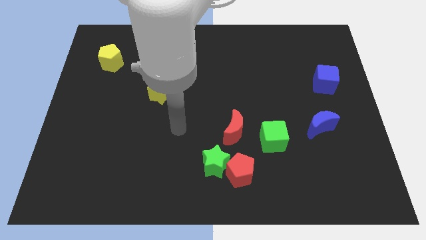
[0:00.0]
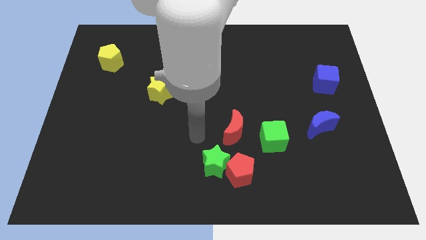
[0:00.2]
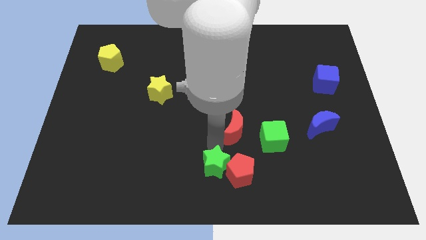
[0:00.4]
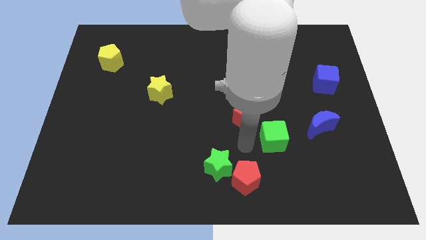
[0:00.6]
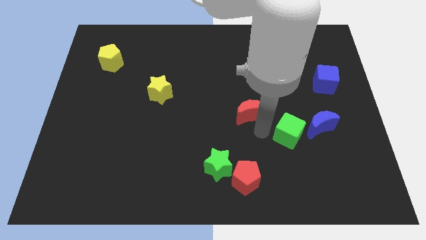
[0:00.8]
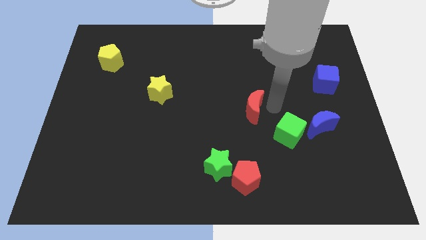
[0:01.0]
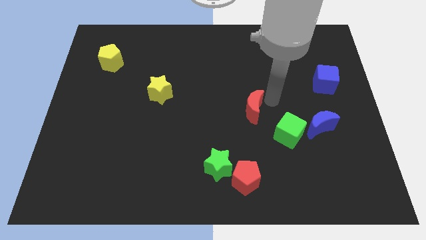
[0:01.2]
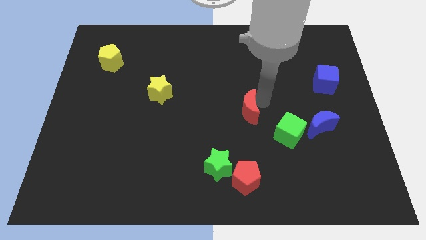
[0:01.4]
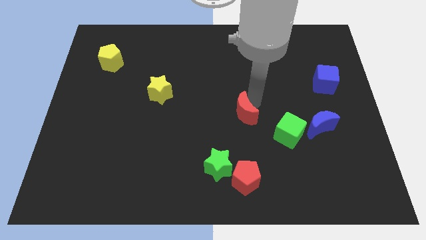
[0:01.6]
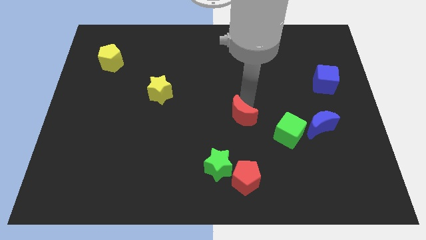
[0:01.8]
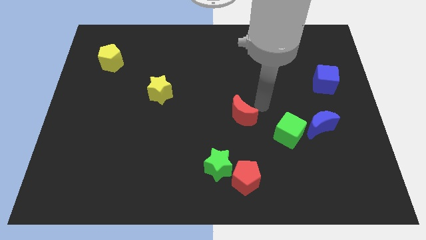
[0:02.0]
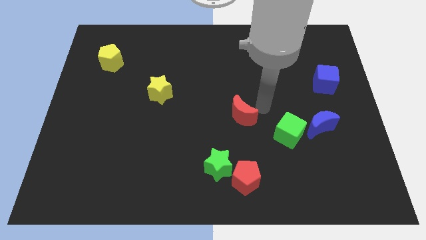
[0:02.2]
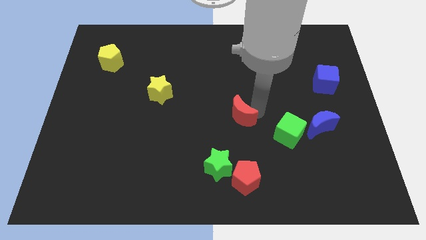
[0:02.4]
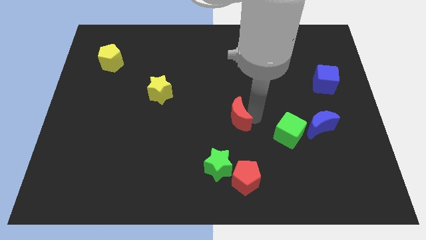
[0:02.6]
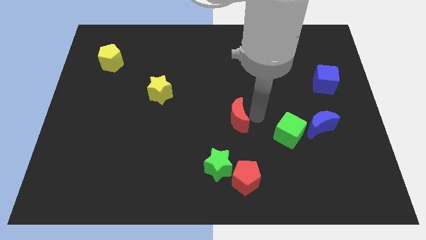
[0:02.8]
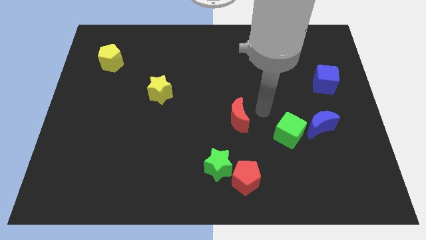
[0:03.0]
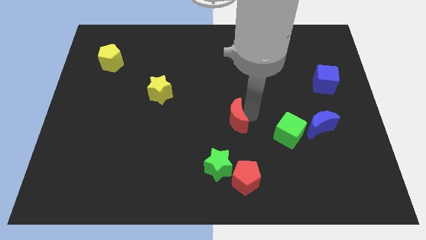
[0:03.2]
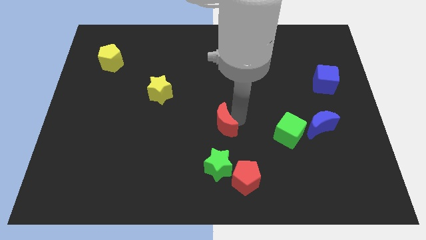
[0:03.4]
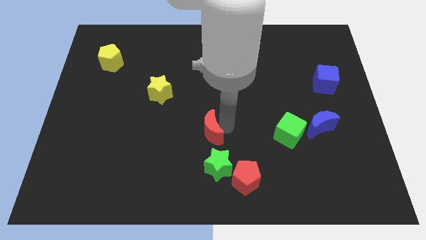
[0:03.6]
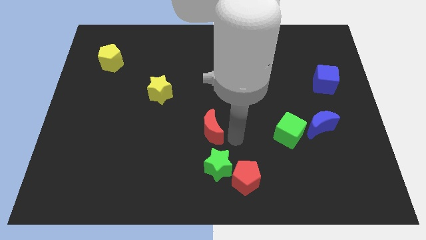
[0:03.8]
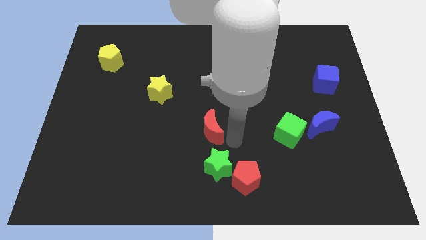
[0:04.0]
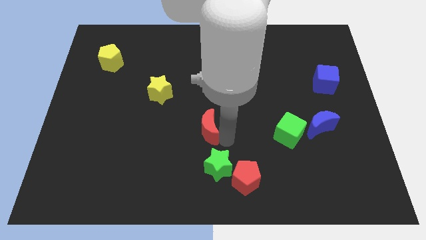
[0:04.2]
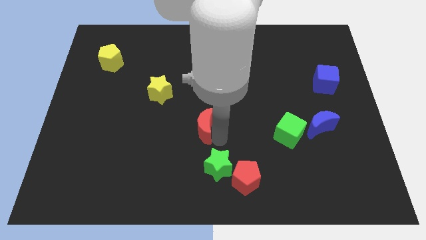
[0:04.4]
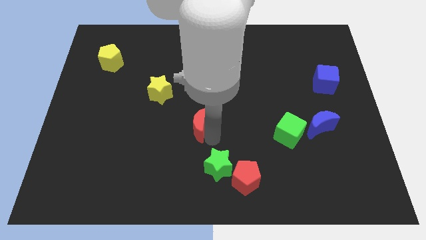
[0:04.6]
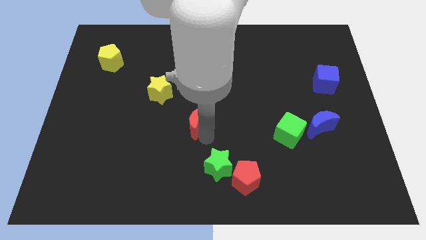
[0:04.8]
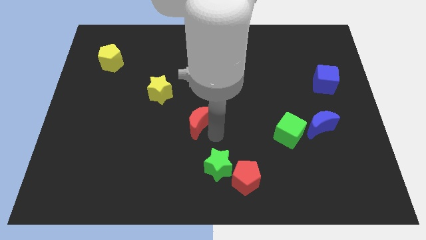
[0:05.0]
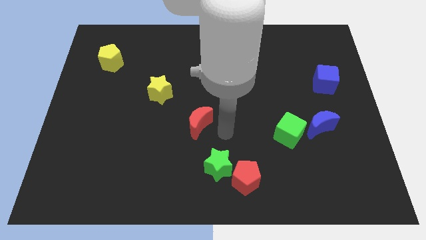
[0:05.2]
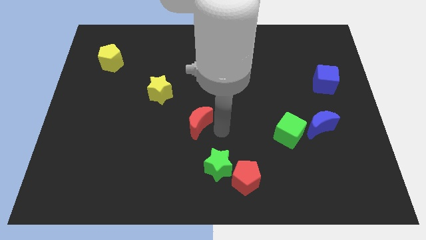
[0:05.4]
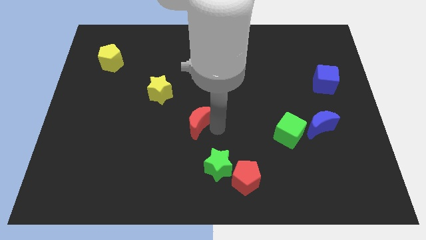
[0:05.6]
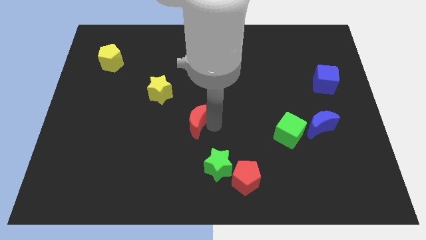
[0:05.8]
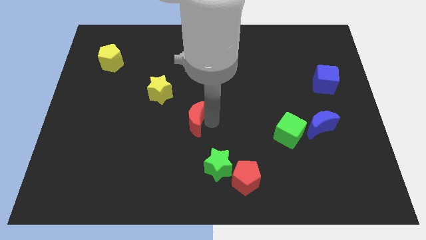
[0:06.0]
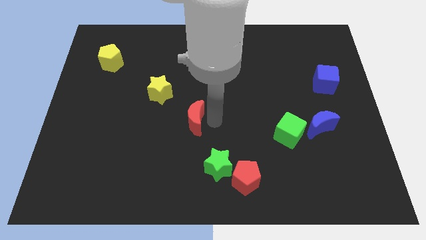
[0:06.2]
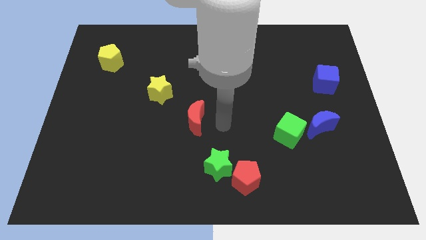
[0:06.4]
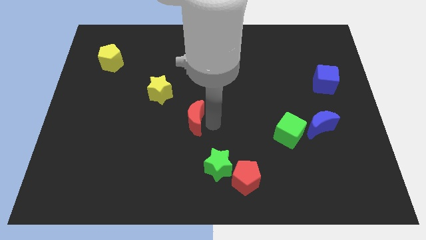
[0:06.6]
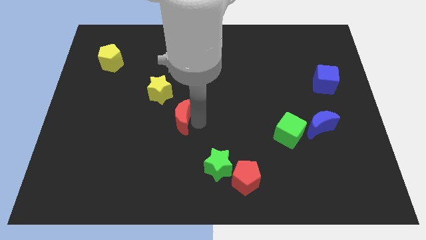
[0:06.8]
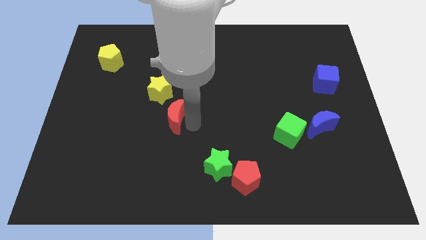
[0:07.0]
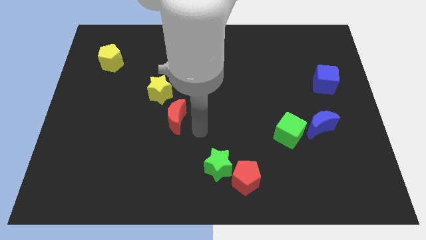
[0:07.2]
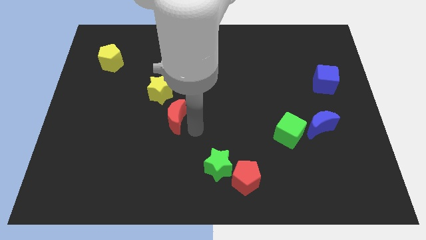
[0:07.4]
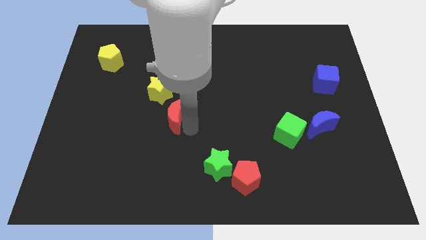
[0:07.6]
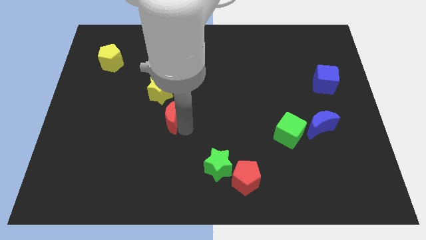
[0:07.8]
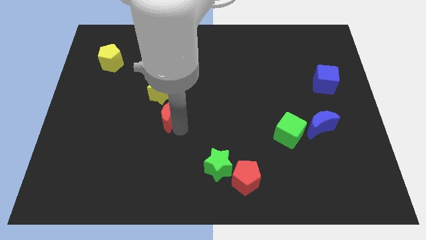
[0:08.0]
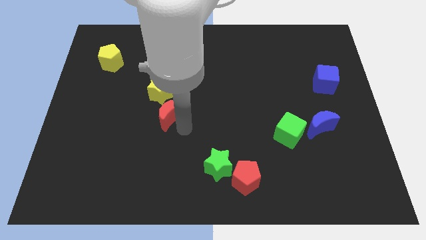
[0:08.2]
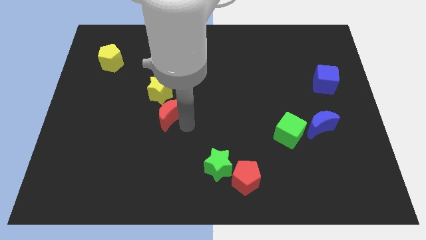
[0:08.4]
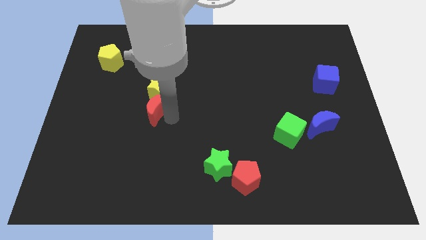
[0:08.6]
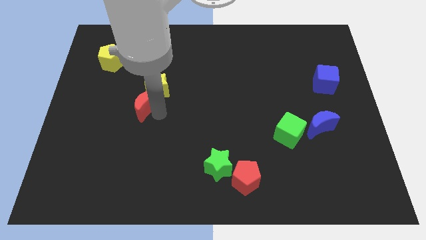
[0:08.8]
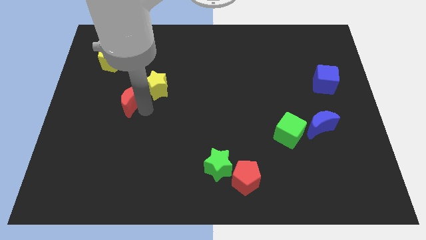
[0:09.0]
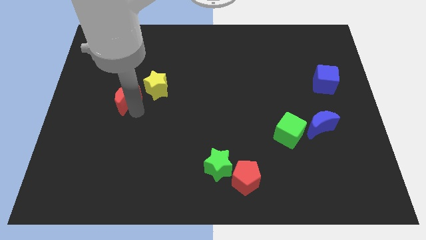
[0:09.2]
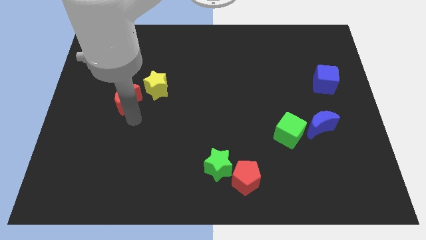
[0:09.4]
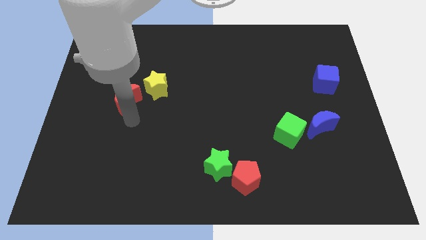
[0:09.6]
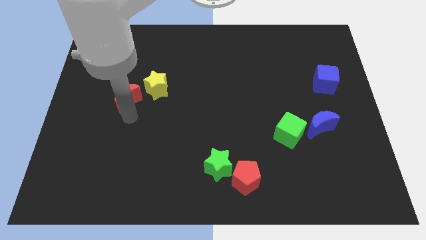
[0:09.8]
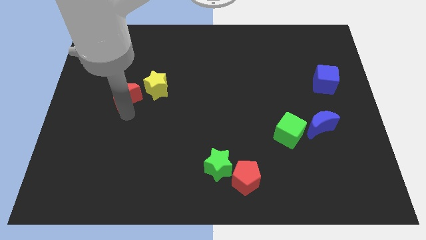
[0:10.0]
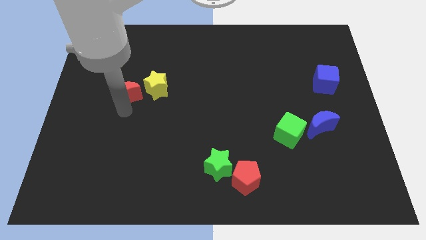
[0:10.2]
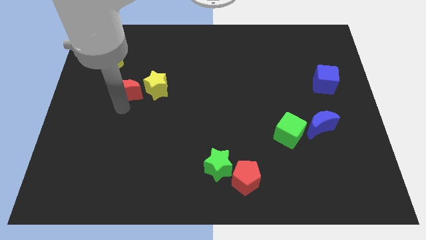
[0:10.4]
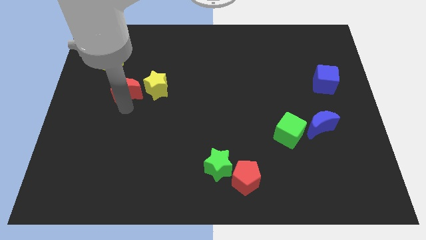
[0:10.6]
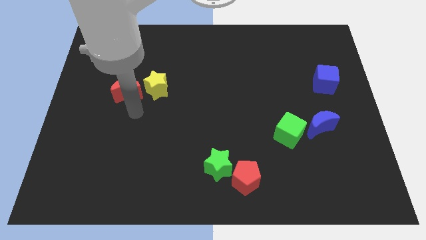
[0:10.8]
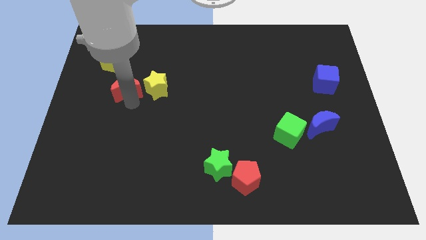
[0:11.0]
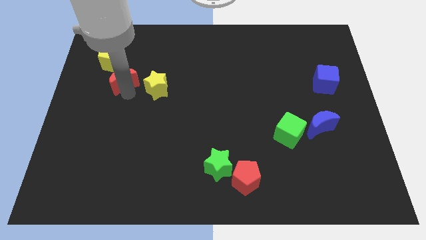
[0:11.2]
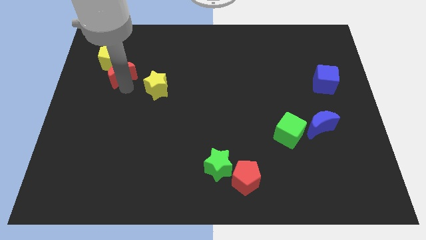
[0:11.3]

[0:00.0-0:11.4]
move the red moon to the yellow pentagon

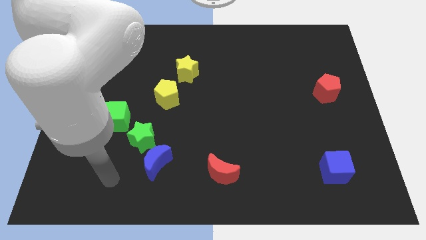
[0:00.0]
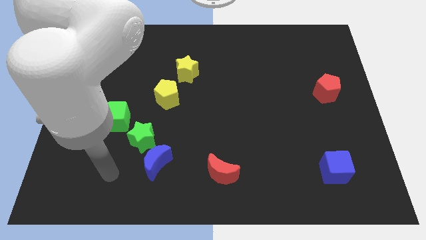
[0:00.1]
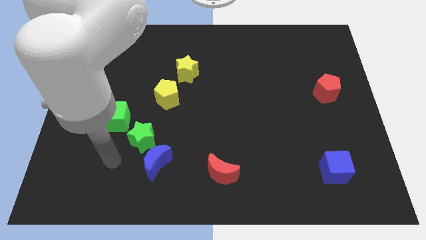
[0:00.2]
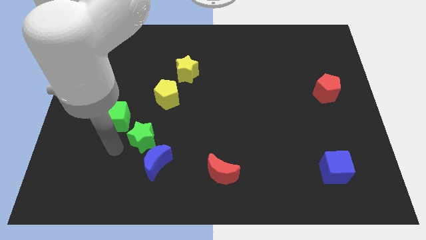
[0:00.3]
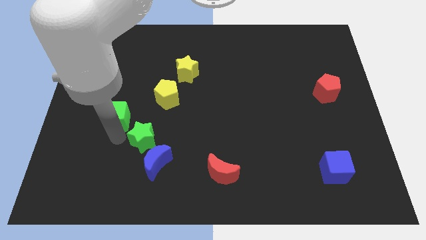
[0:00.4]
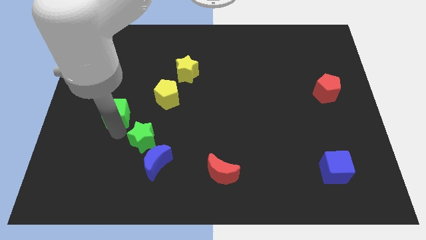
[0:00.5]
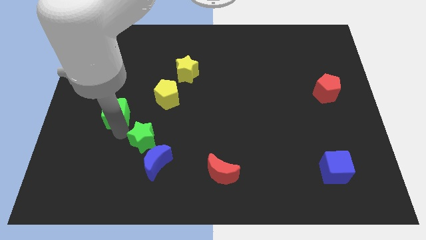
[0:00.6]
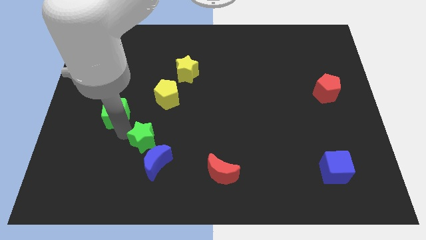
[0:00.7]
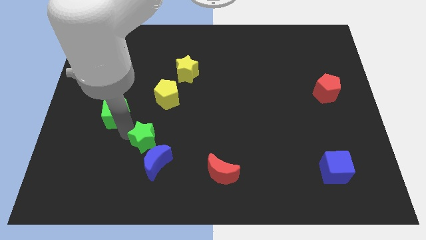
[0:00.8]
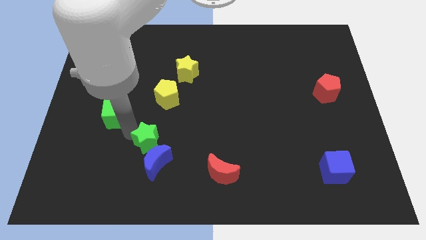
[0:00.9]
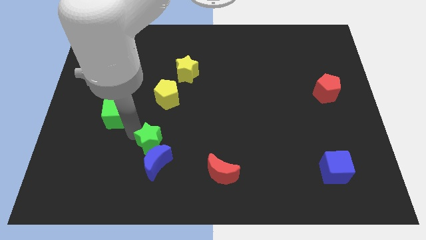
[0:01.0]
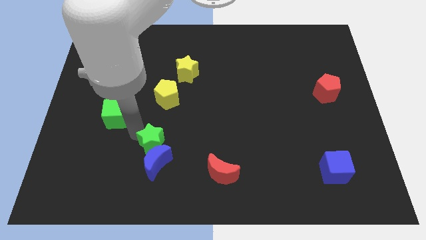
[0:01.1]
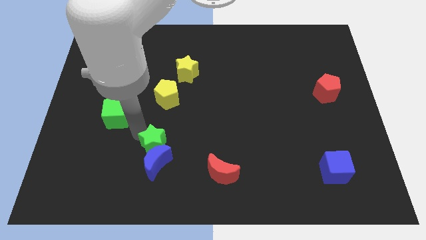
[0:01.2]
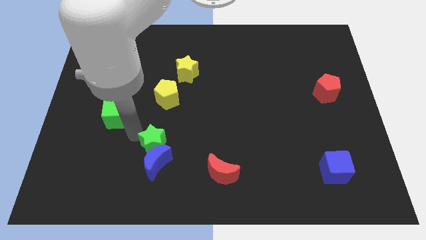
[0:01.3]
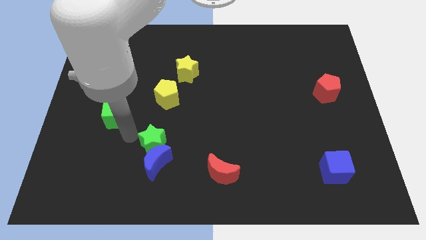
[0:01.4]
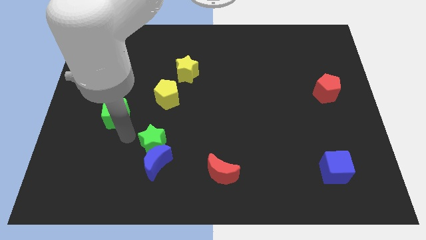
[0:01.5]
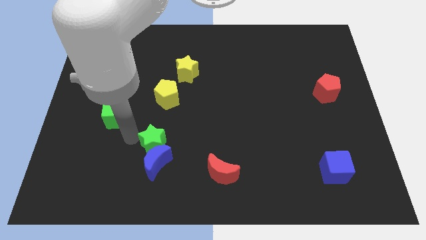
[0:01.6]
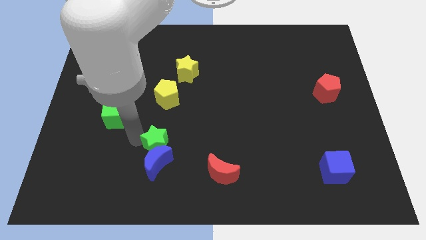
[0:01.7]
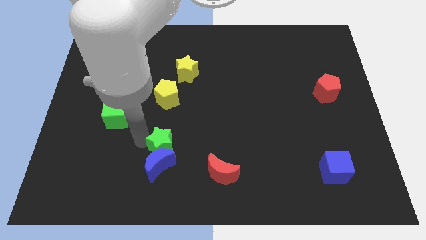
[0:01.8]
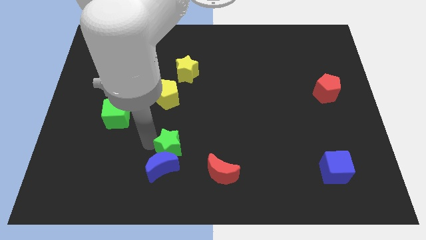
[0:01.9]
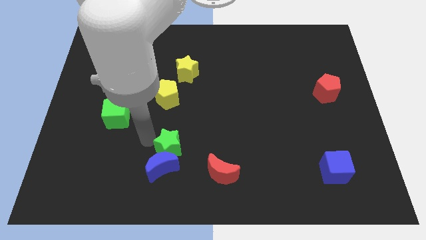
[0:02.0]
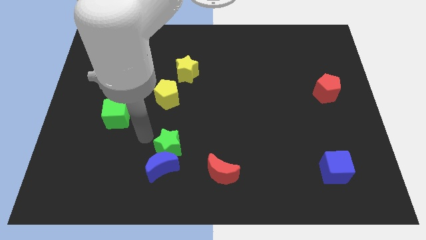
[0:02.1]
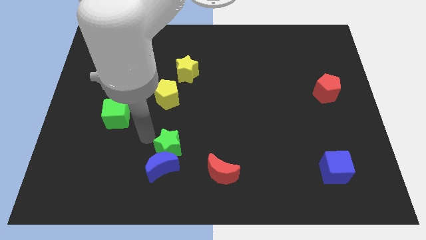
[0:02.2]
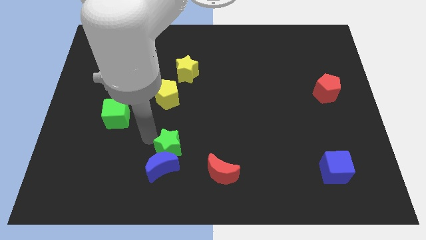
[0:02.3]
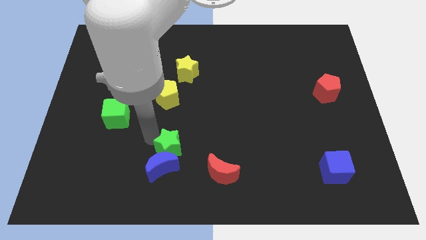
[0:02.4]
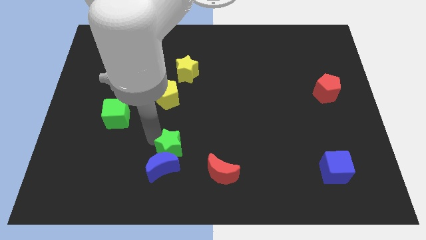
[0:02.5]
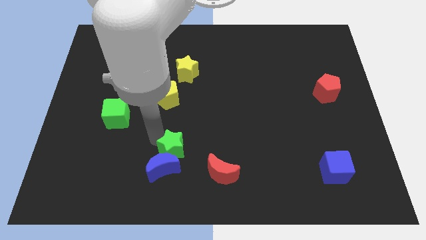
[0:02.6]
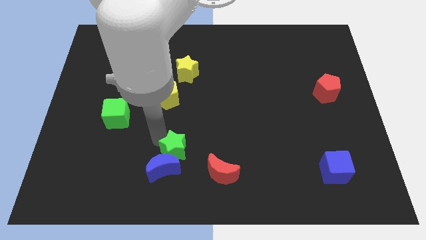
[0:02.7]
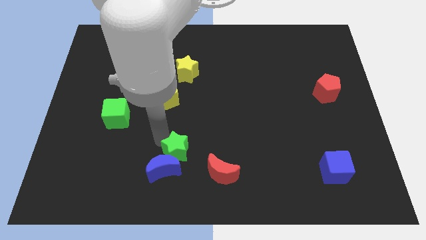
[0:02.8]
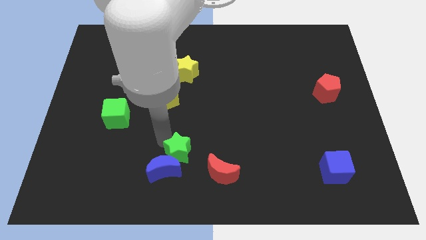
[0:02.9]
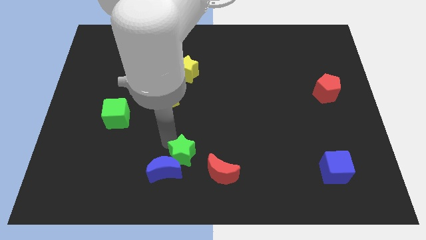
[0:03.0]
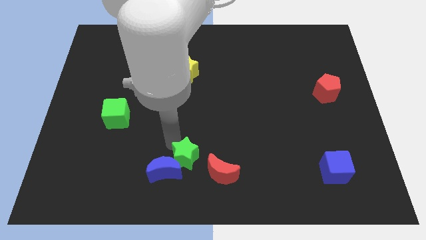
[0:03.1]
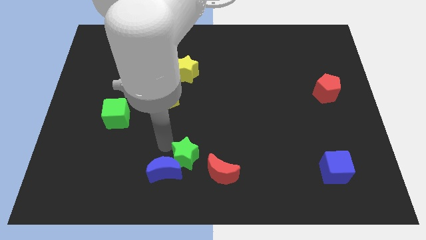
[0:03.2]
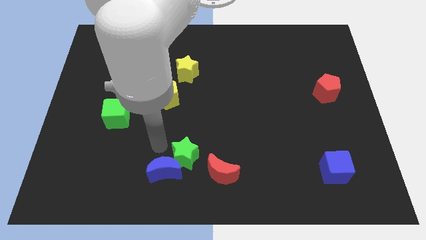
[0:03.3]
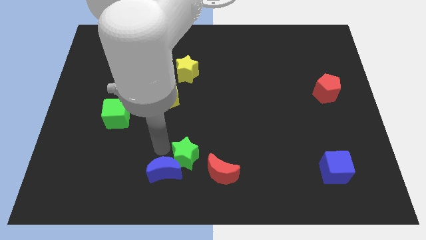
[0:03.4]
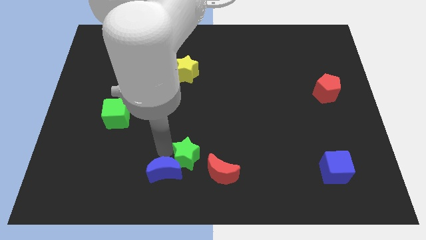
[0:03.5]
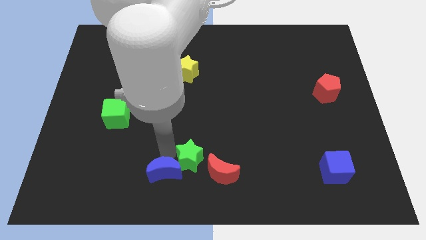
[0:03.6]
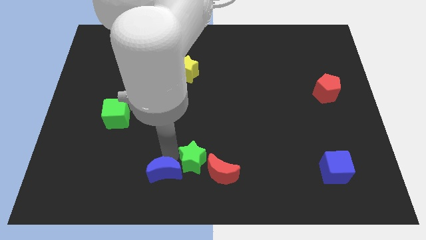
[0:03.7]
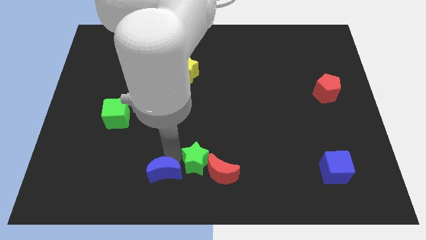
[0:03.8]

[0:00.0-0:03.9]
slide the green star towards the red moon
